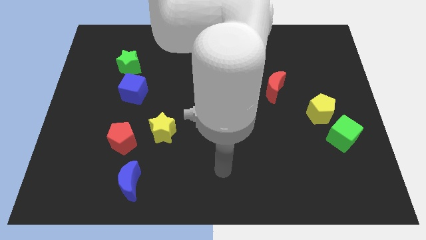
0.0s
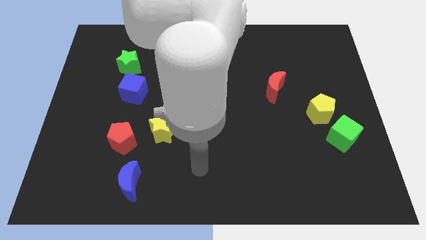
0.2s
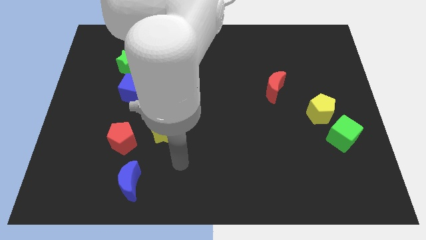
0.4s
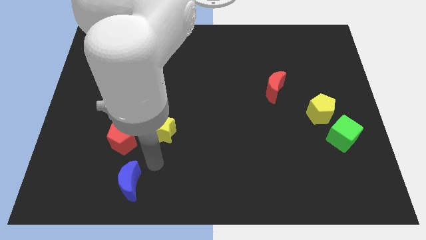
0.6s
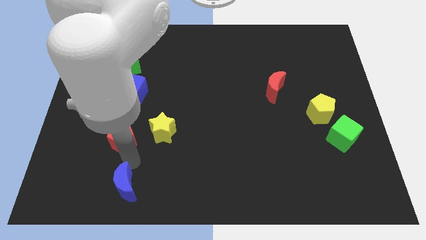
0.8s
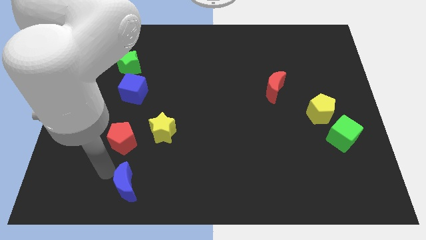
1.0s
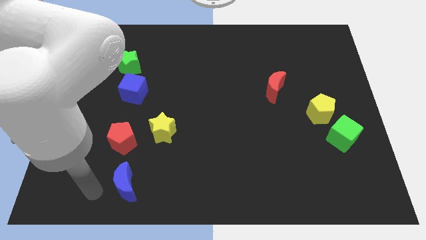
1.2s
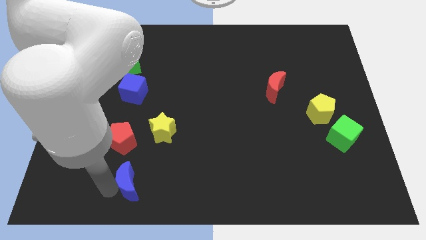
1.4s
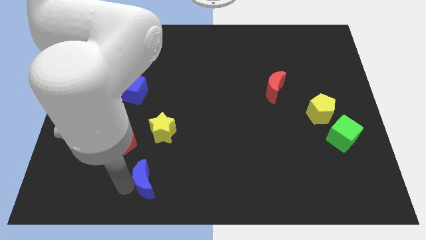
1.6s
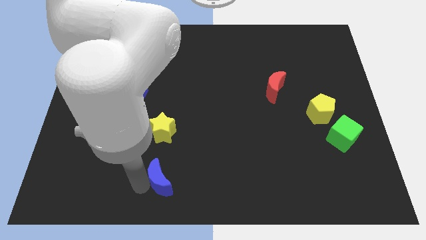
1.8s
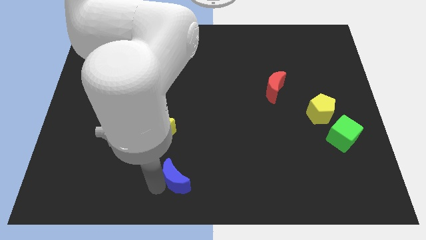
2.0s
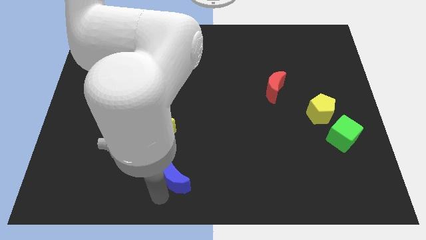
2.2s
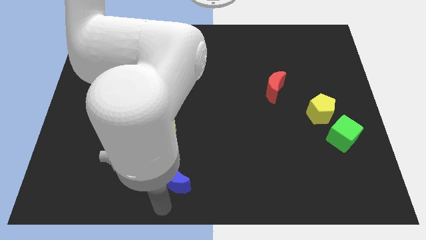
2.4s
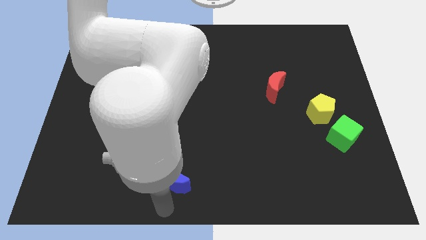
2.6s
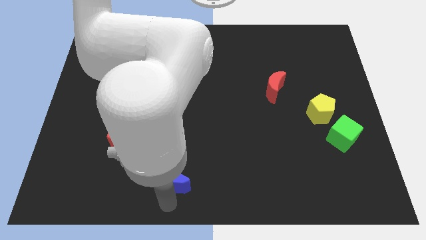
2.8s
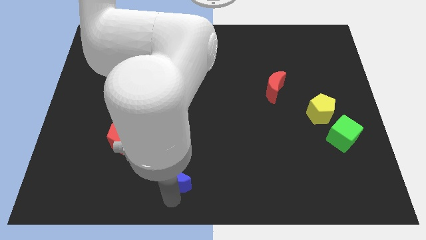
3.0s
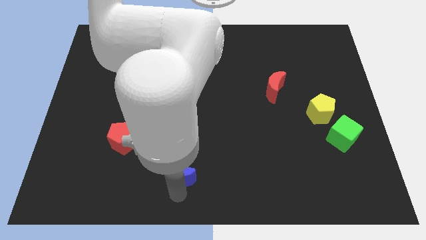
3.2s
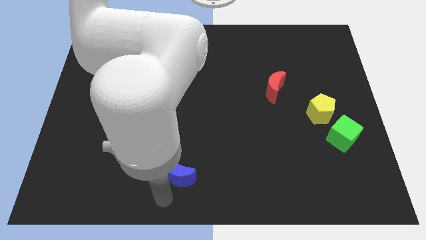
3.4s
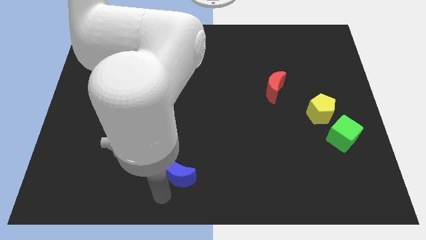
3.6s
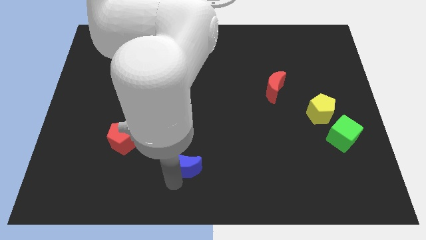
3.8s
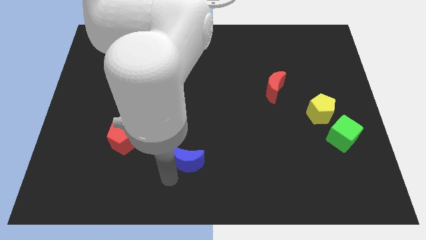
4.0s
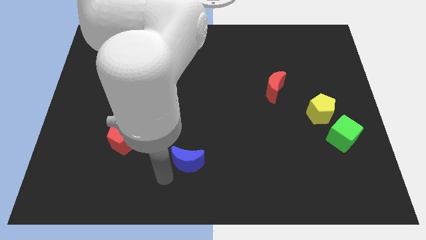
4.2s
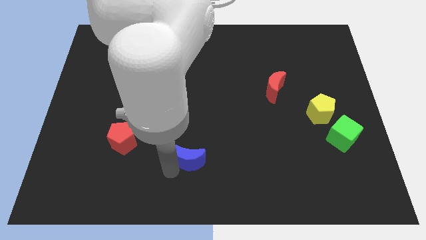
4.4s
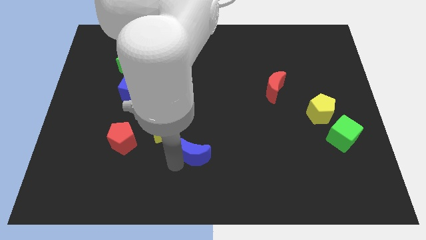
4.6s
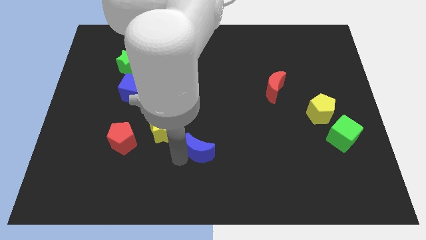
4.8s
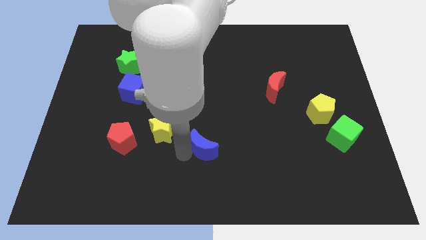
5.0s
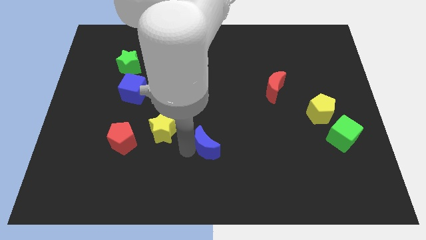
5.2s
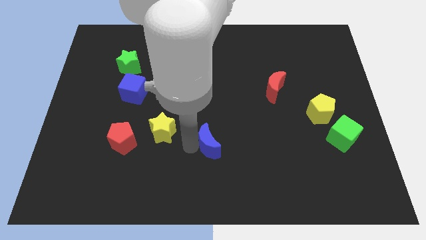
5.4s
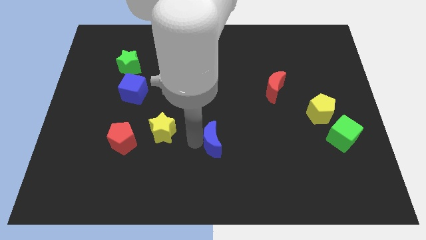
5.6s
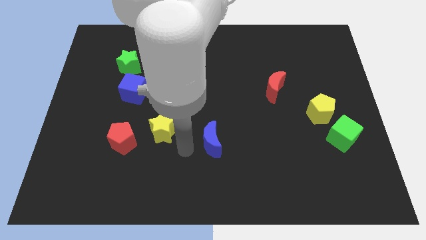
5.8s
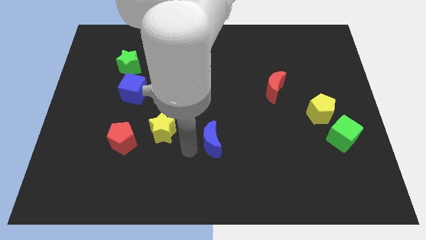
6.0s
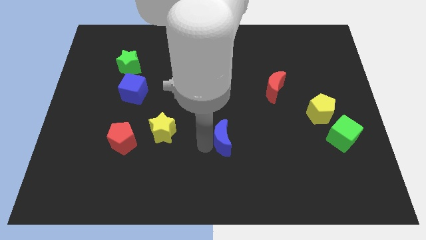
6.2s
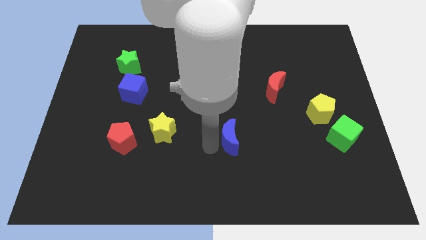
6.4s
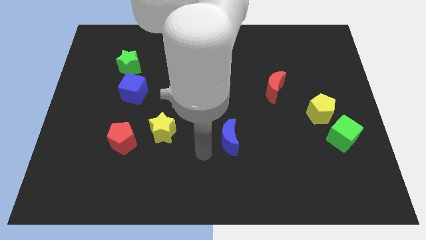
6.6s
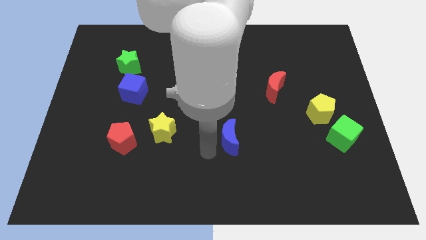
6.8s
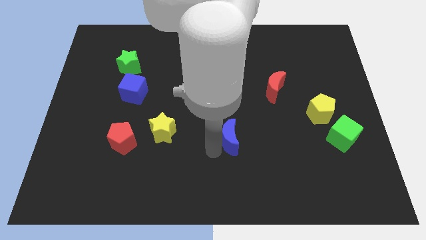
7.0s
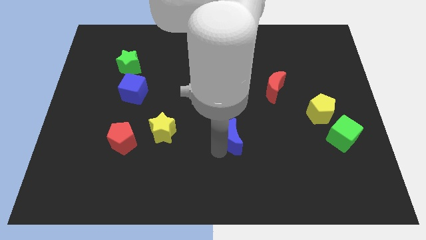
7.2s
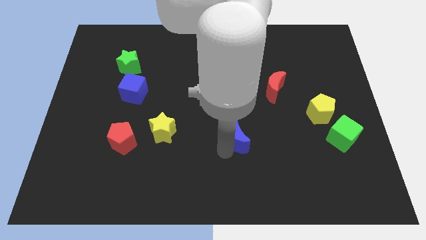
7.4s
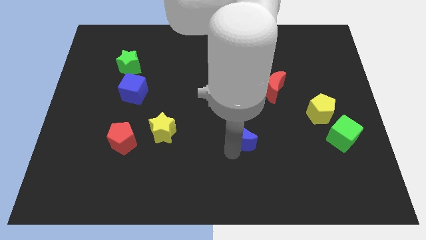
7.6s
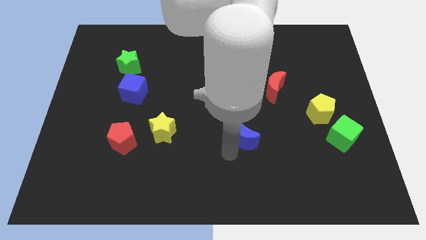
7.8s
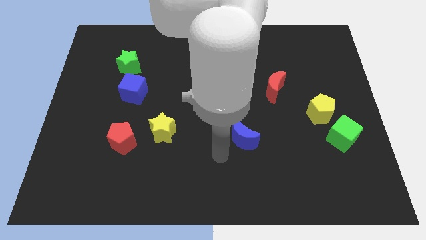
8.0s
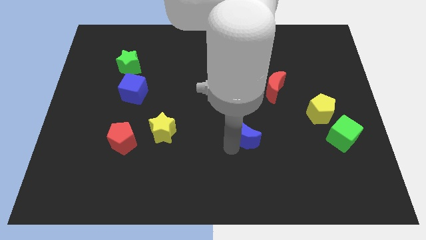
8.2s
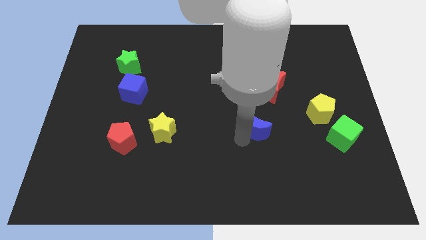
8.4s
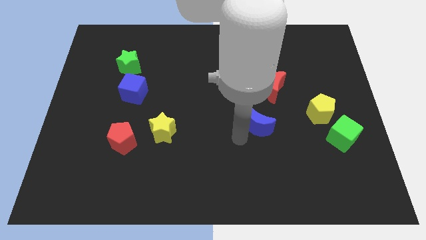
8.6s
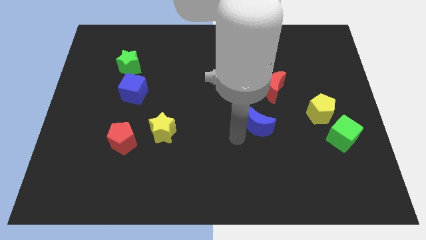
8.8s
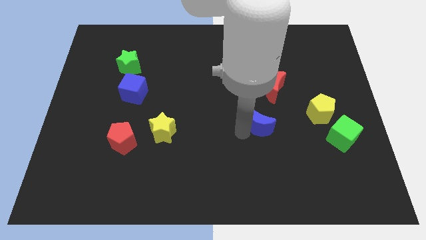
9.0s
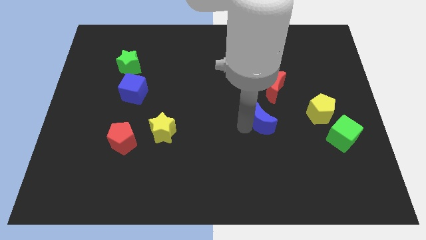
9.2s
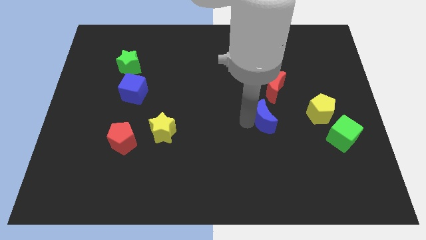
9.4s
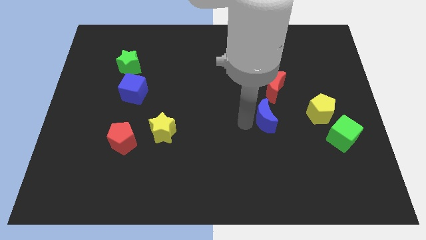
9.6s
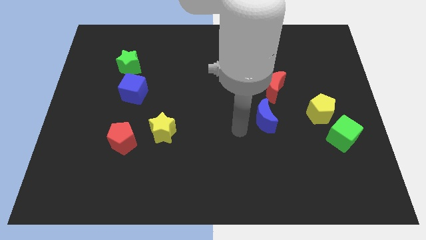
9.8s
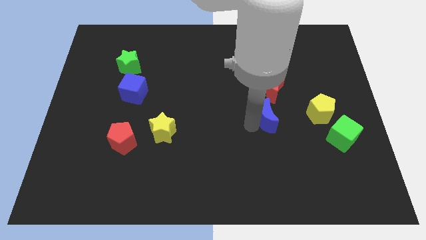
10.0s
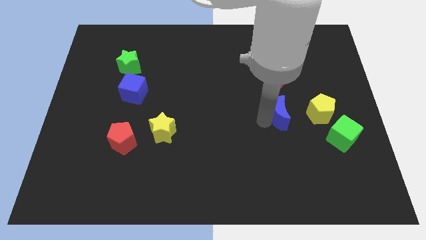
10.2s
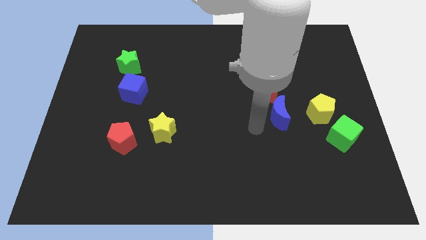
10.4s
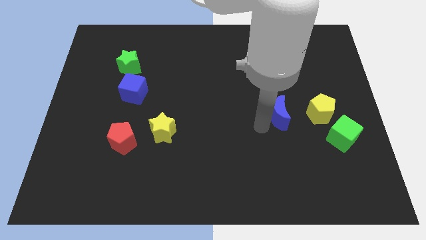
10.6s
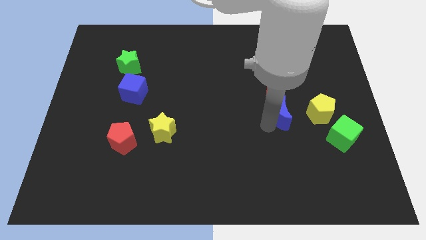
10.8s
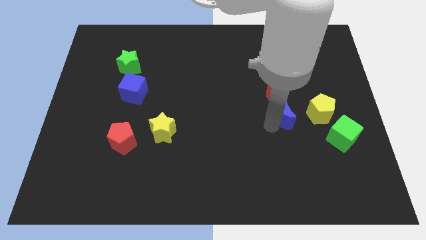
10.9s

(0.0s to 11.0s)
move the blue moon to the bottom right of the red moon

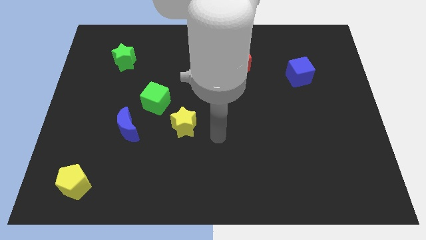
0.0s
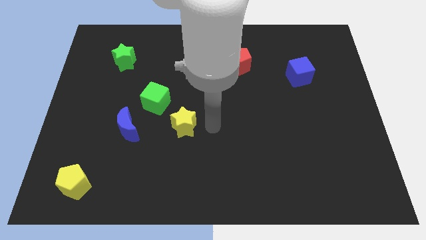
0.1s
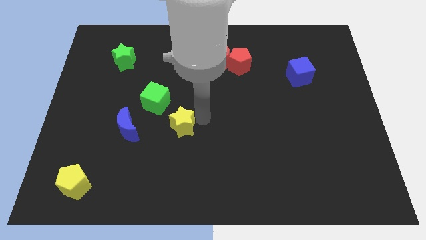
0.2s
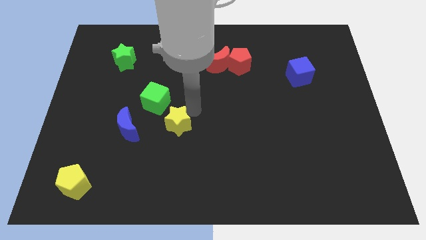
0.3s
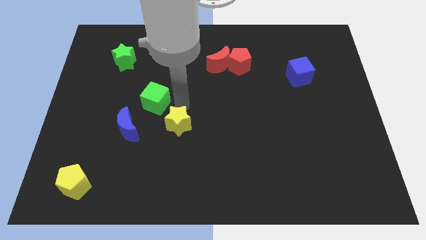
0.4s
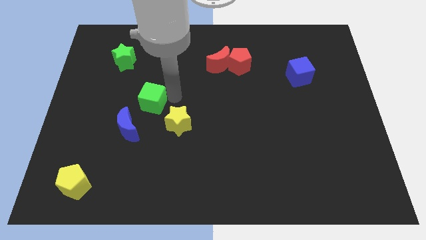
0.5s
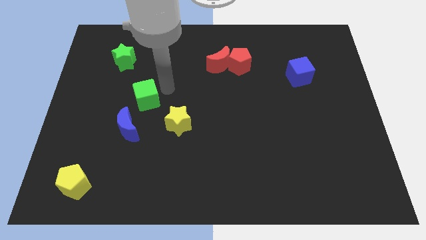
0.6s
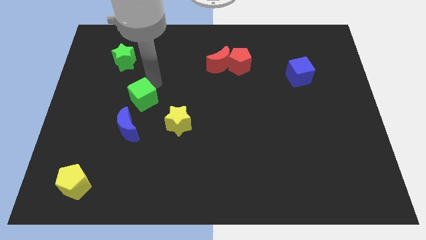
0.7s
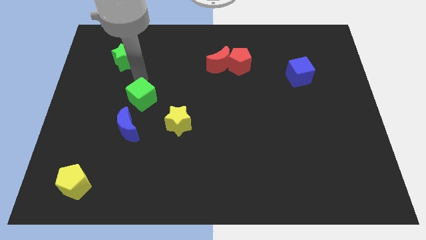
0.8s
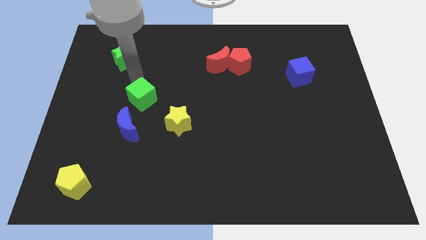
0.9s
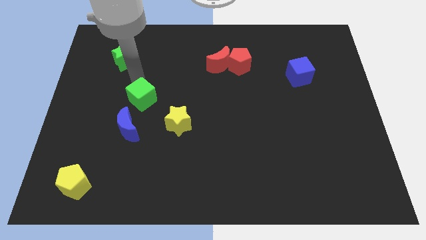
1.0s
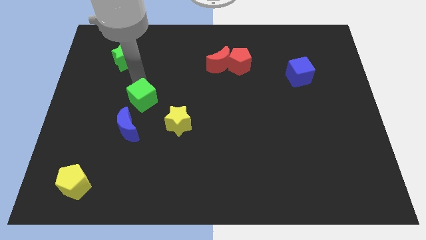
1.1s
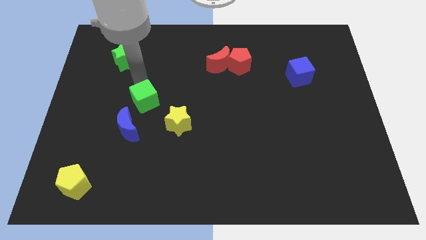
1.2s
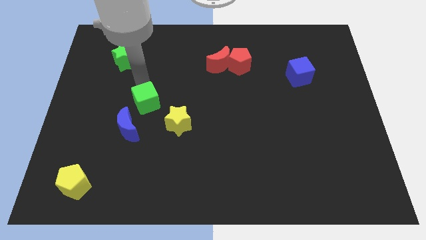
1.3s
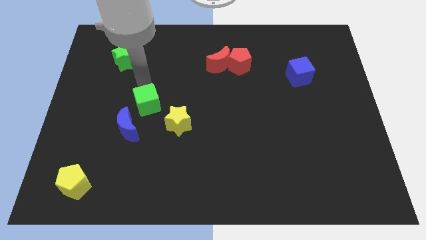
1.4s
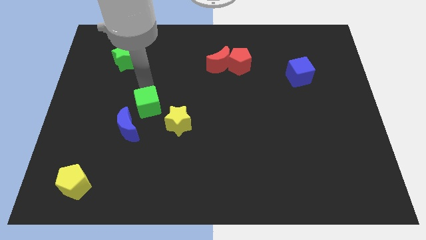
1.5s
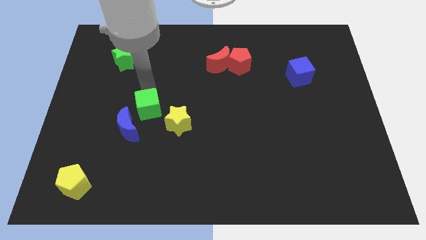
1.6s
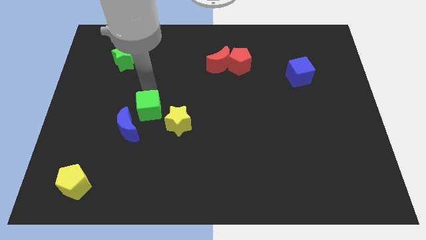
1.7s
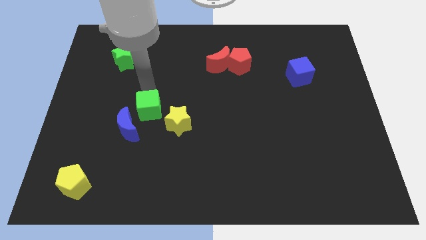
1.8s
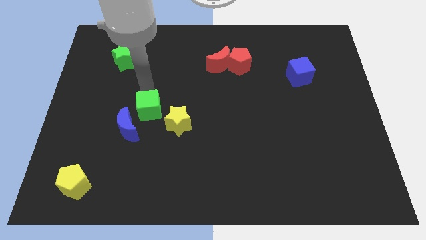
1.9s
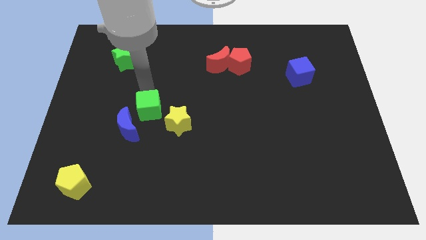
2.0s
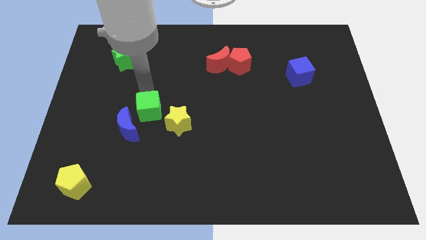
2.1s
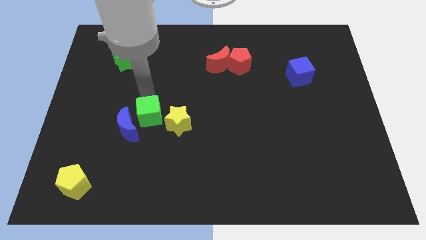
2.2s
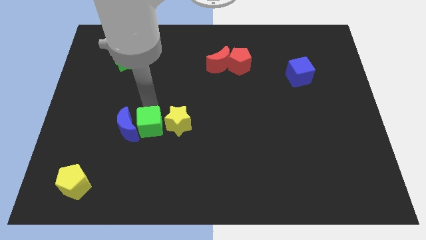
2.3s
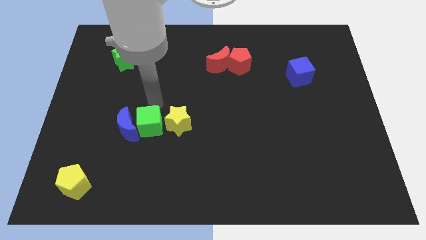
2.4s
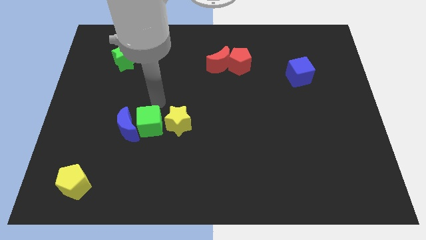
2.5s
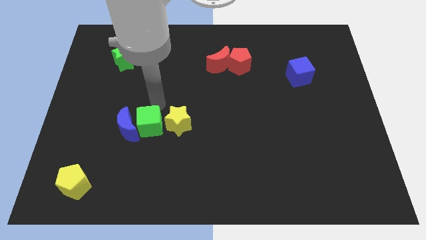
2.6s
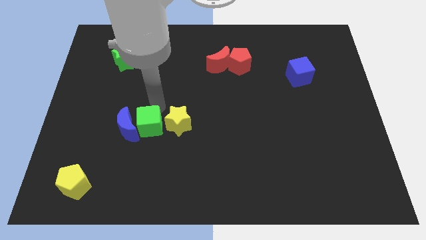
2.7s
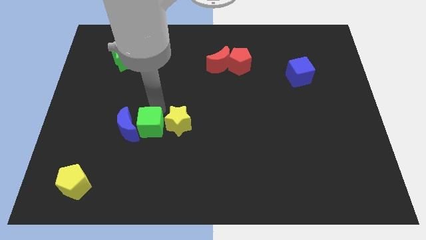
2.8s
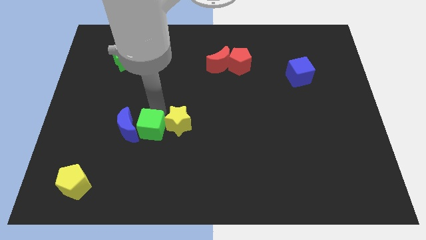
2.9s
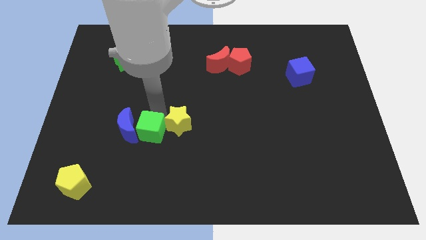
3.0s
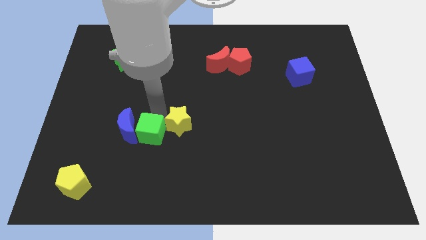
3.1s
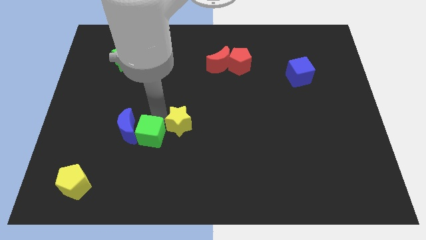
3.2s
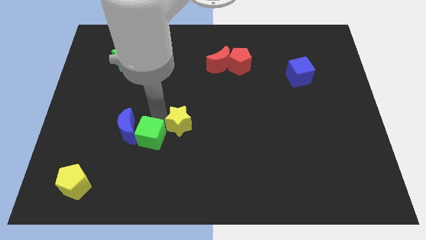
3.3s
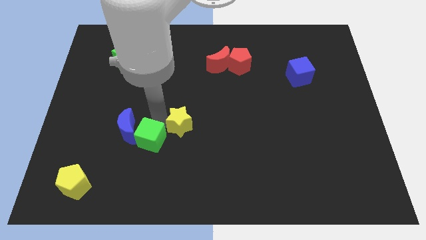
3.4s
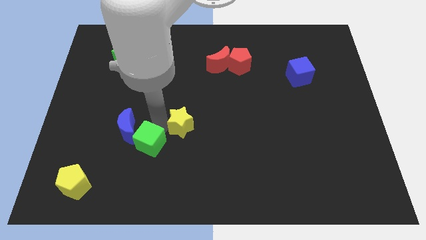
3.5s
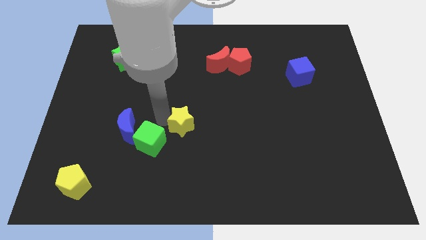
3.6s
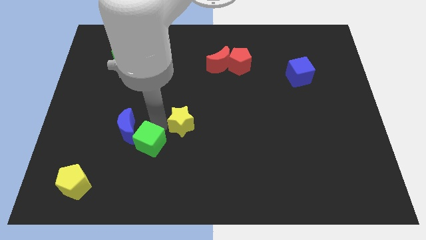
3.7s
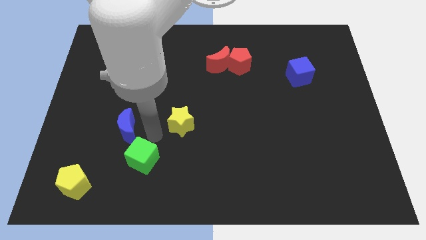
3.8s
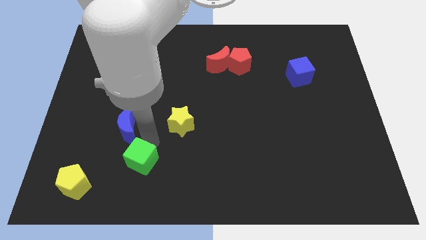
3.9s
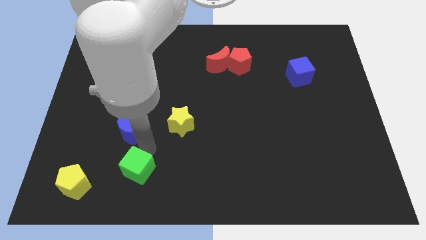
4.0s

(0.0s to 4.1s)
move the green cube just right of the yellow pentagon
